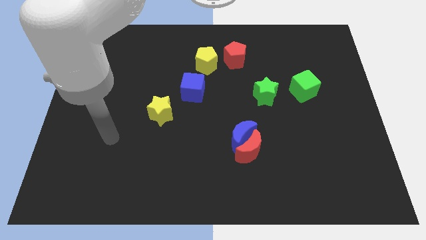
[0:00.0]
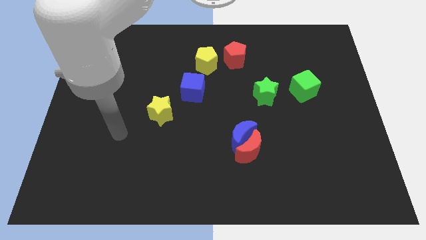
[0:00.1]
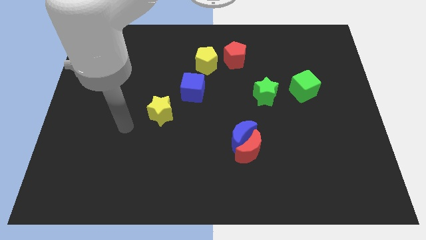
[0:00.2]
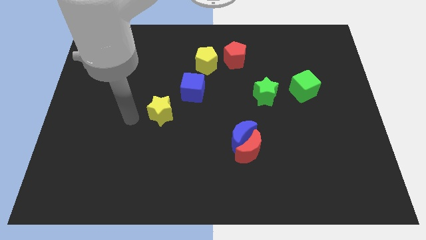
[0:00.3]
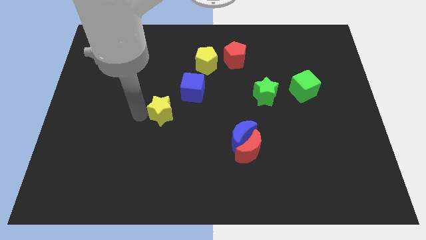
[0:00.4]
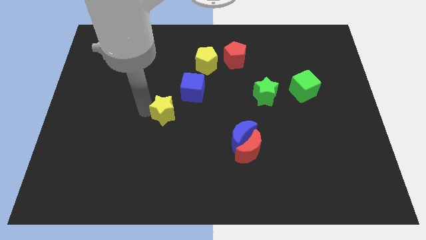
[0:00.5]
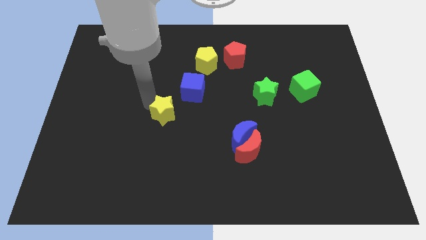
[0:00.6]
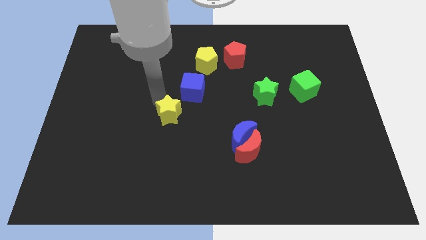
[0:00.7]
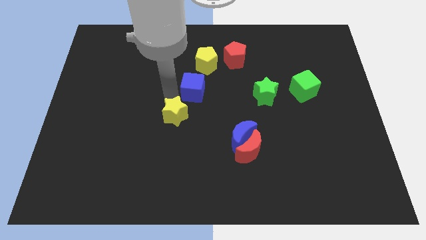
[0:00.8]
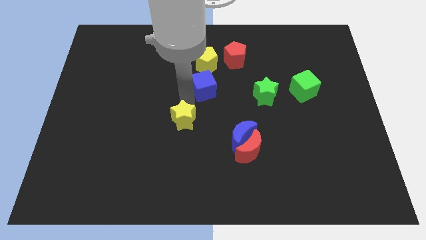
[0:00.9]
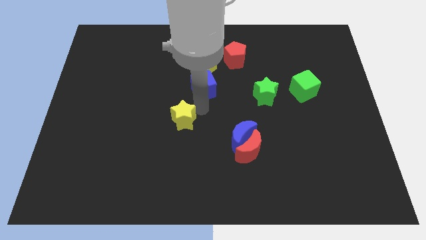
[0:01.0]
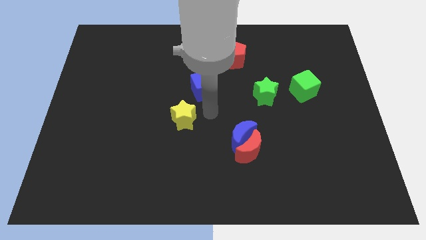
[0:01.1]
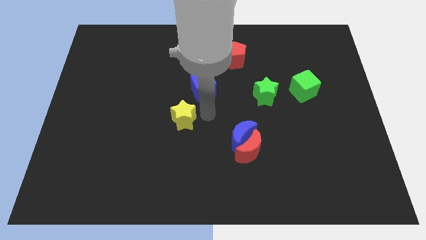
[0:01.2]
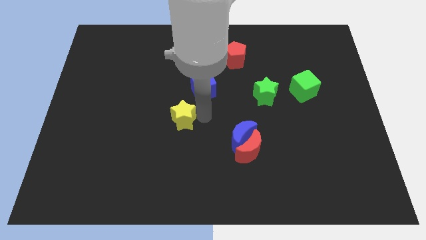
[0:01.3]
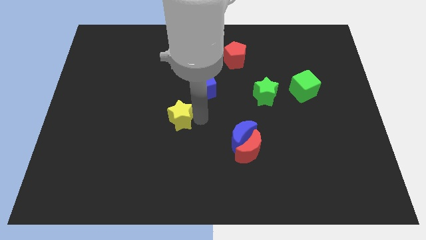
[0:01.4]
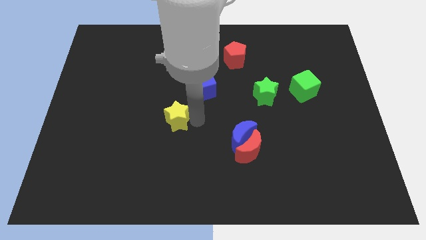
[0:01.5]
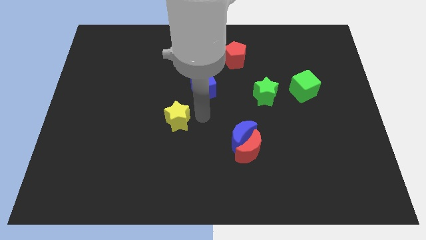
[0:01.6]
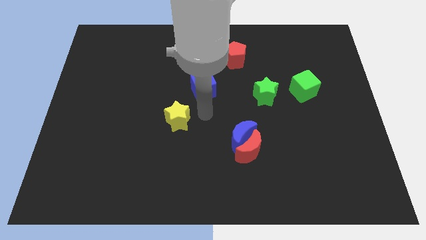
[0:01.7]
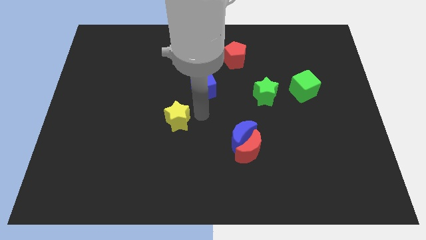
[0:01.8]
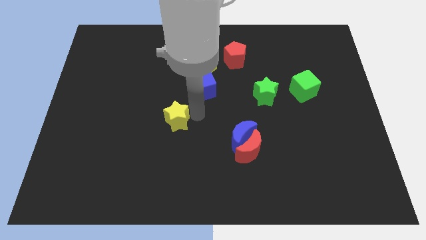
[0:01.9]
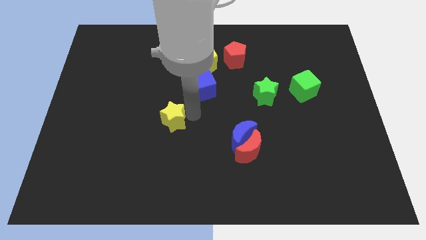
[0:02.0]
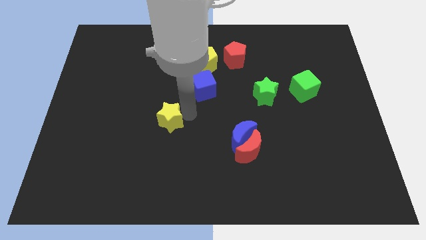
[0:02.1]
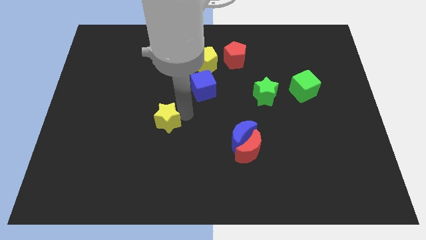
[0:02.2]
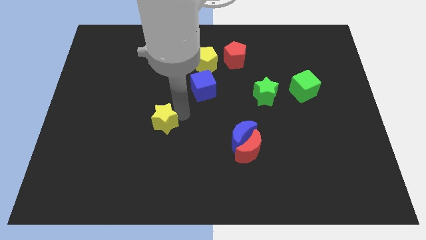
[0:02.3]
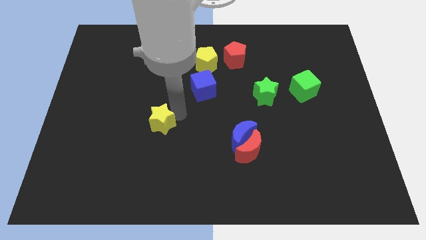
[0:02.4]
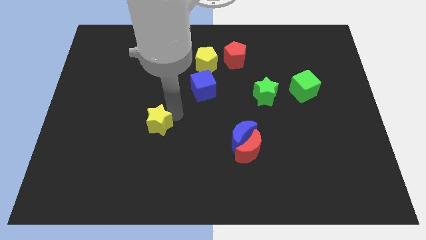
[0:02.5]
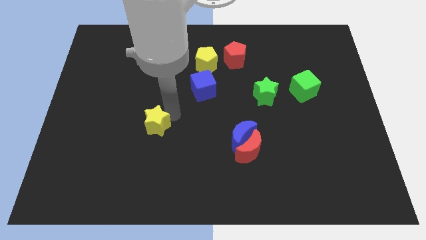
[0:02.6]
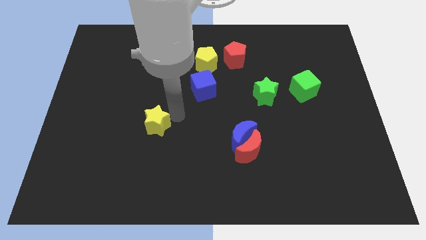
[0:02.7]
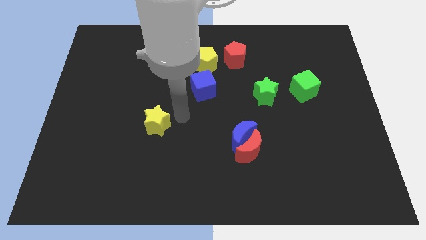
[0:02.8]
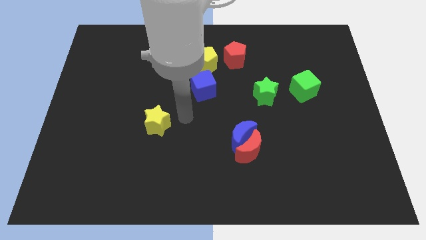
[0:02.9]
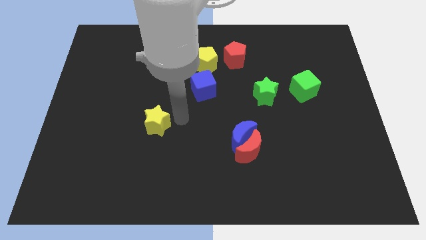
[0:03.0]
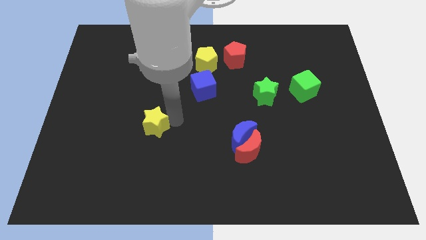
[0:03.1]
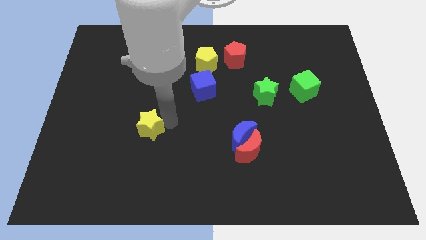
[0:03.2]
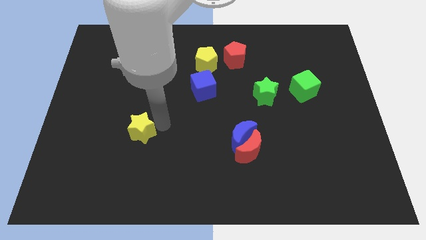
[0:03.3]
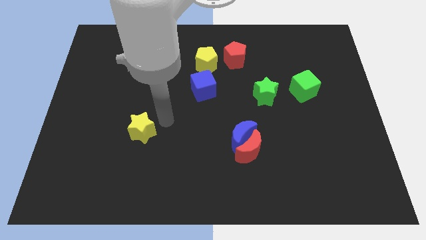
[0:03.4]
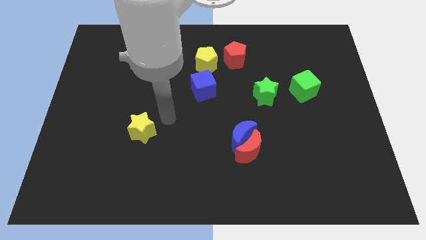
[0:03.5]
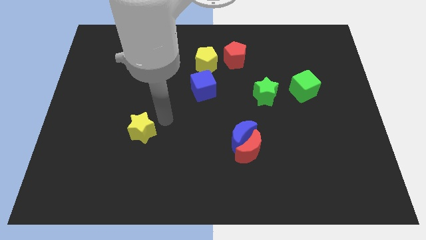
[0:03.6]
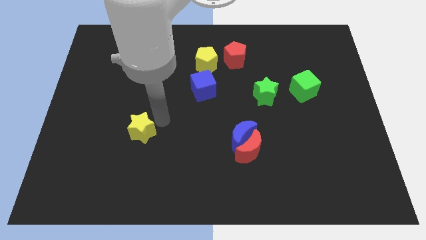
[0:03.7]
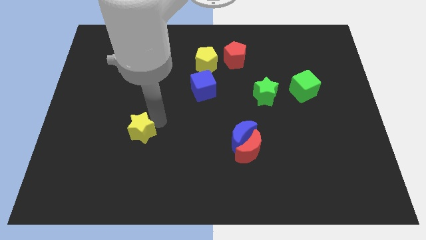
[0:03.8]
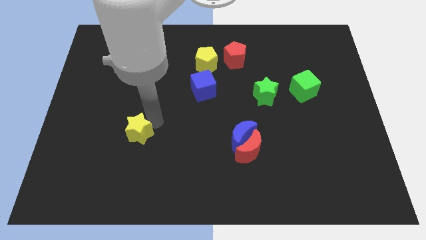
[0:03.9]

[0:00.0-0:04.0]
slightly push the yellow star downwards and left diagonally

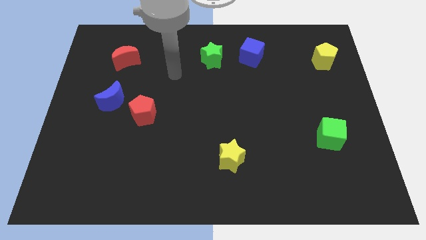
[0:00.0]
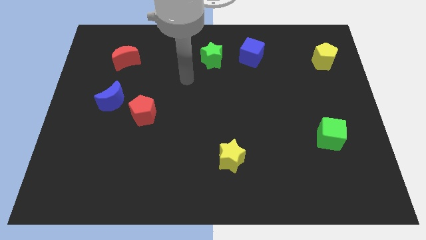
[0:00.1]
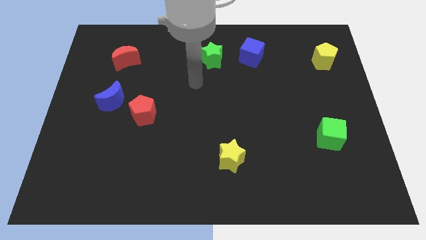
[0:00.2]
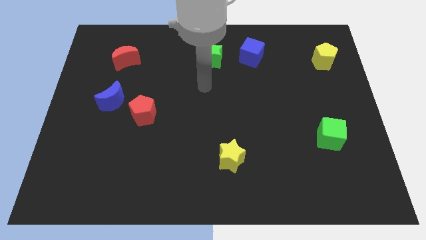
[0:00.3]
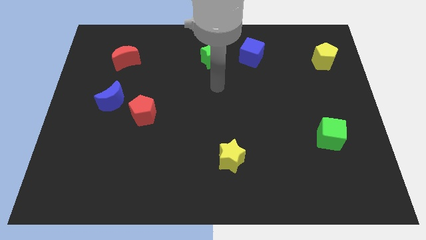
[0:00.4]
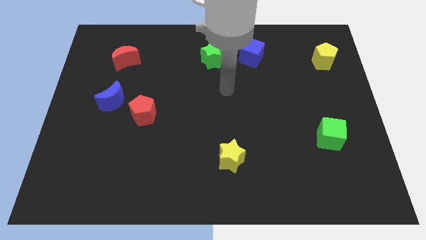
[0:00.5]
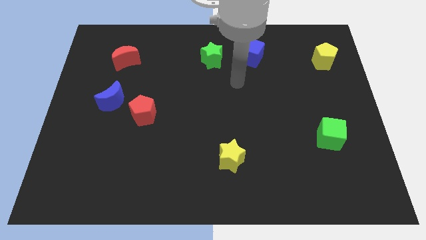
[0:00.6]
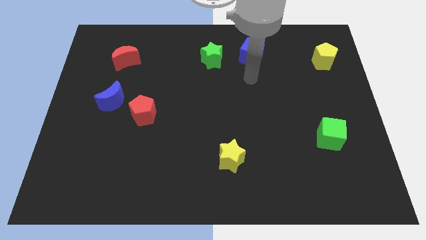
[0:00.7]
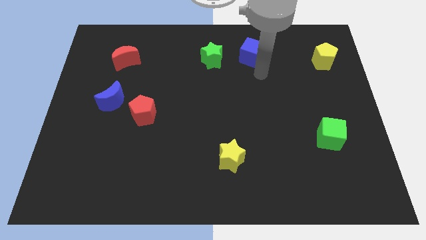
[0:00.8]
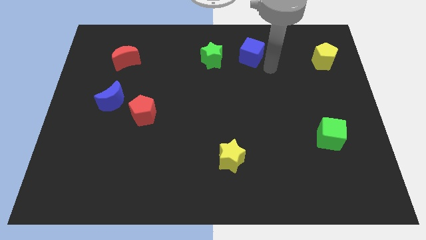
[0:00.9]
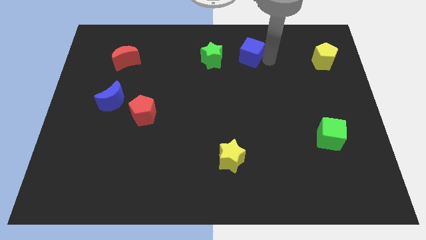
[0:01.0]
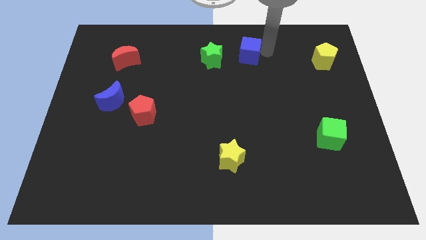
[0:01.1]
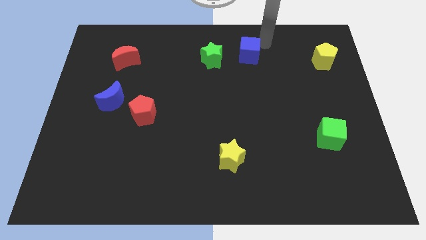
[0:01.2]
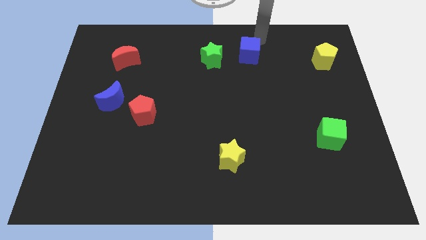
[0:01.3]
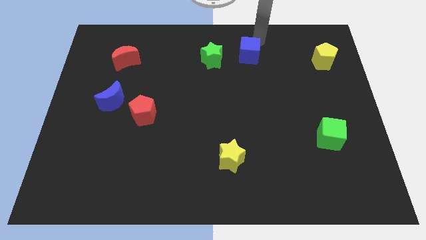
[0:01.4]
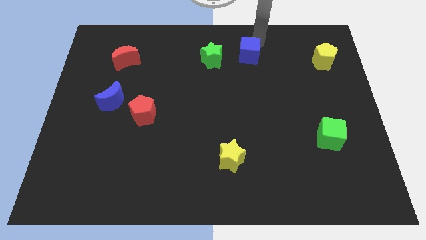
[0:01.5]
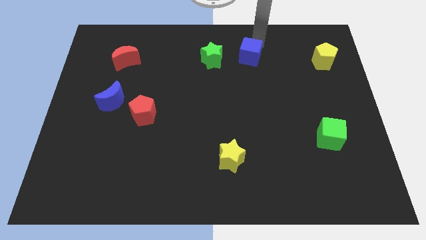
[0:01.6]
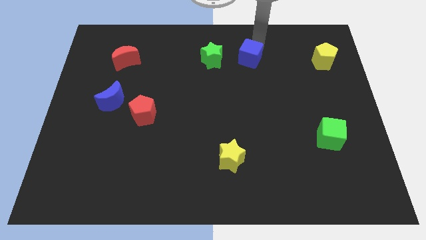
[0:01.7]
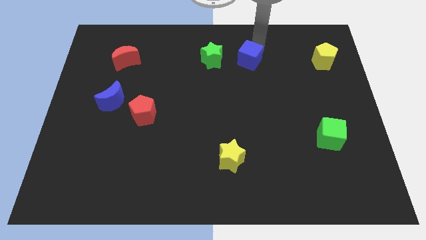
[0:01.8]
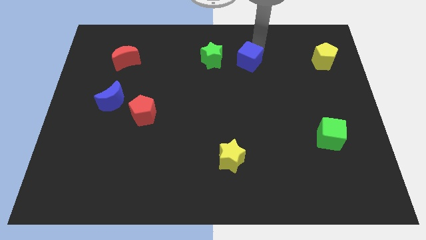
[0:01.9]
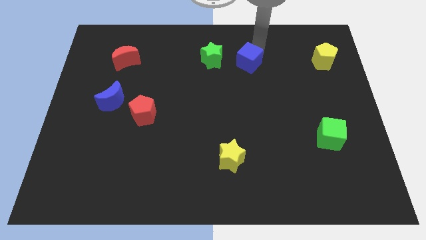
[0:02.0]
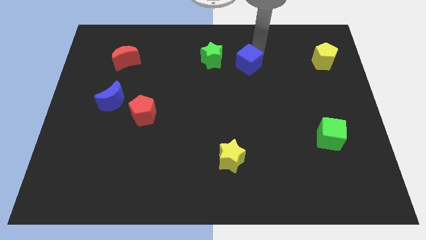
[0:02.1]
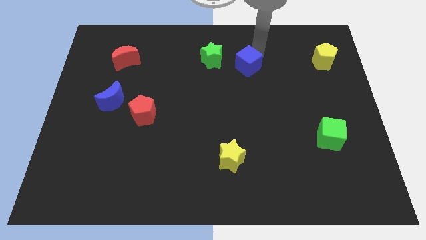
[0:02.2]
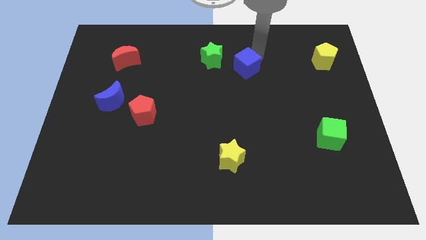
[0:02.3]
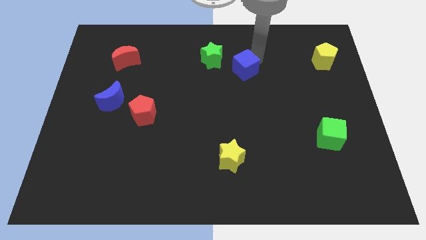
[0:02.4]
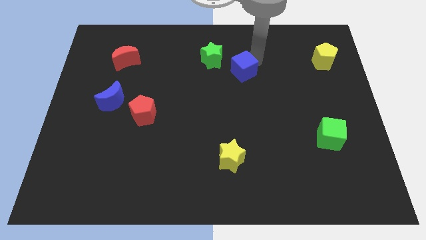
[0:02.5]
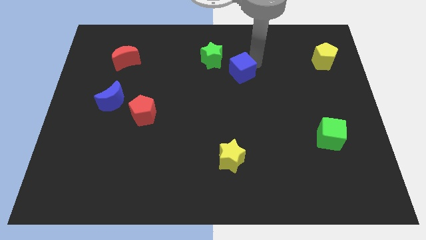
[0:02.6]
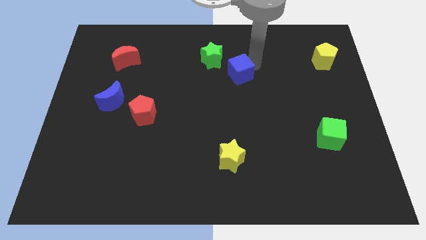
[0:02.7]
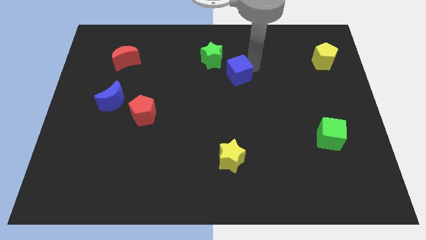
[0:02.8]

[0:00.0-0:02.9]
move the blue cube downwards and then to the left a little

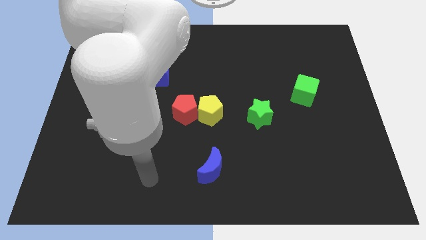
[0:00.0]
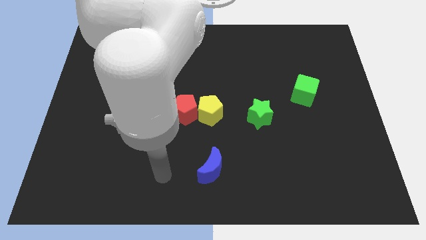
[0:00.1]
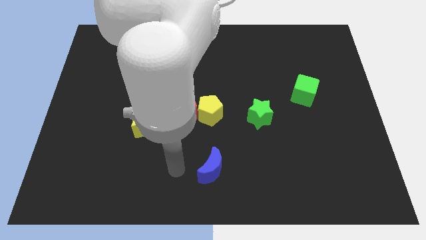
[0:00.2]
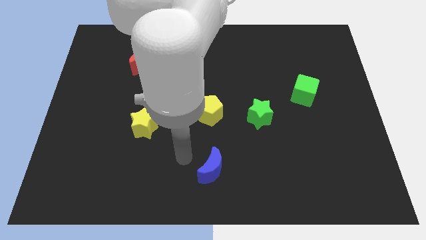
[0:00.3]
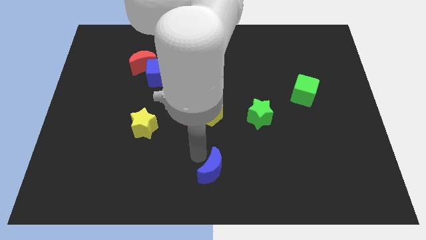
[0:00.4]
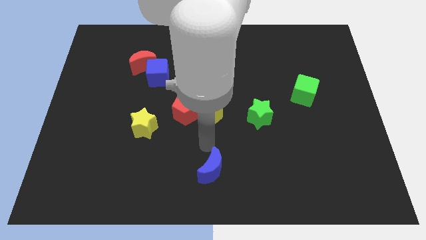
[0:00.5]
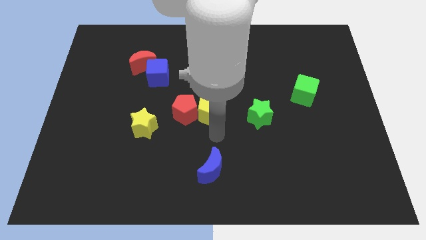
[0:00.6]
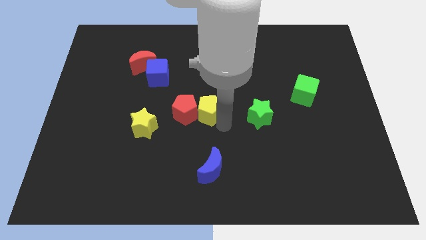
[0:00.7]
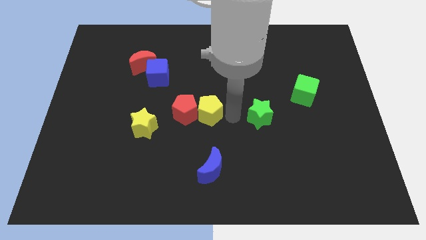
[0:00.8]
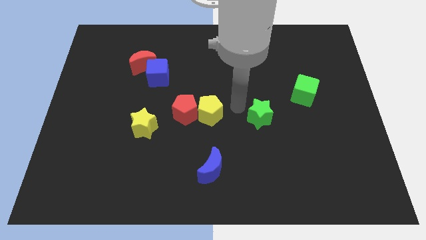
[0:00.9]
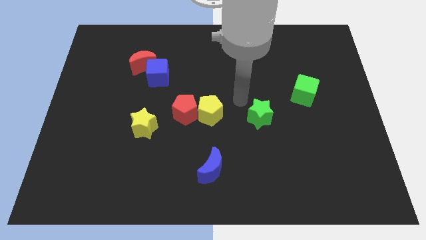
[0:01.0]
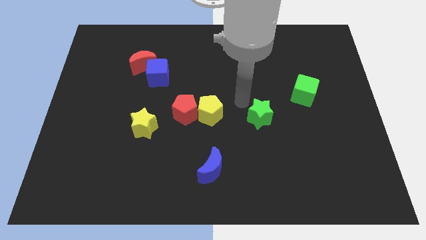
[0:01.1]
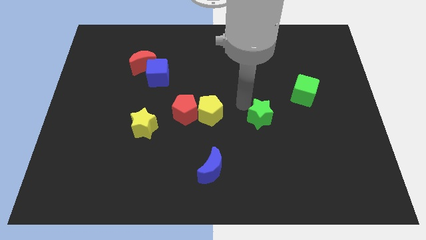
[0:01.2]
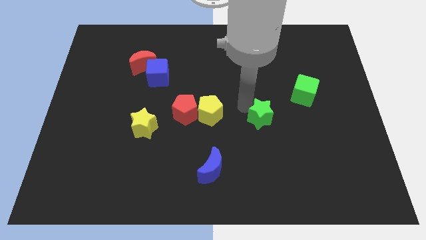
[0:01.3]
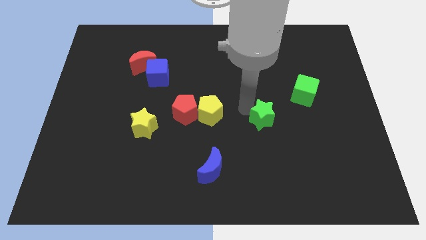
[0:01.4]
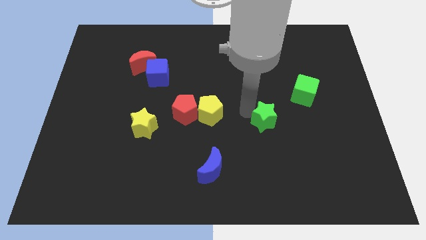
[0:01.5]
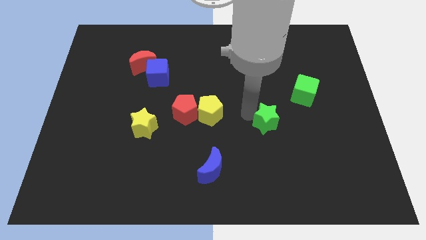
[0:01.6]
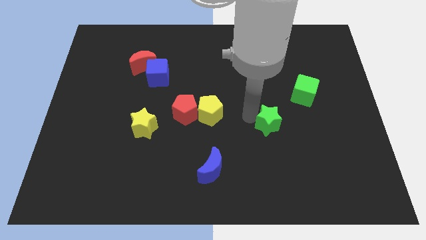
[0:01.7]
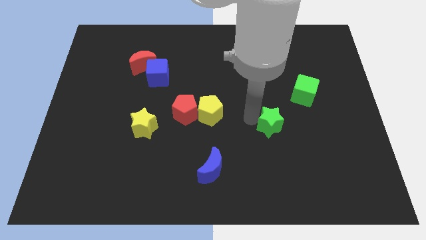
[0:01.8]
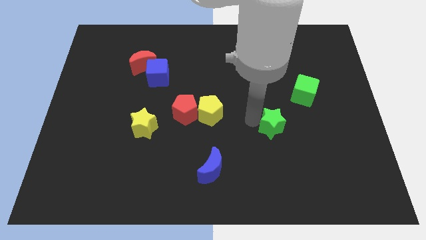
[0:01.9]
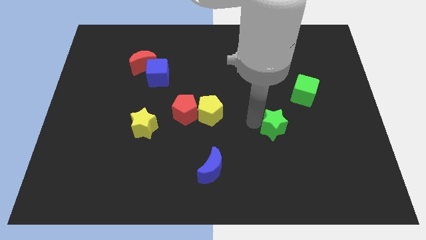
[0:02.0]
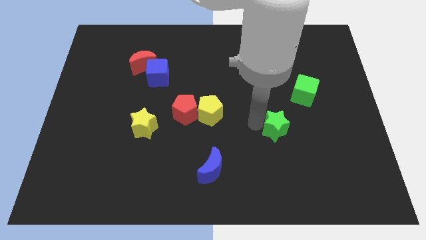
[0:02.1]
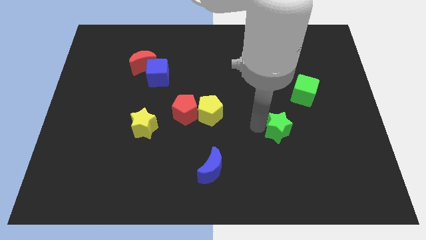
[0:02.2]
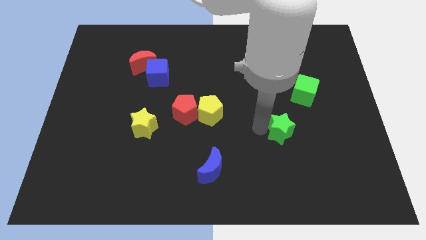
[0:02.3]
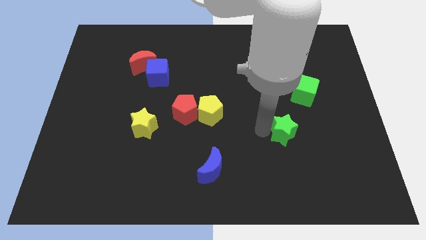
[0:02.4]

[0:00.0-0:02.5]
slide the green star down and to the right a bit
